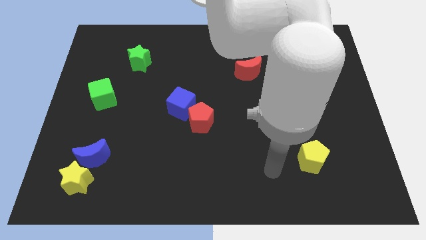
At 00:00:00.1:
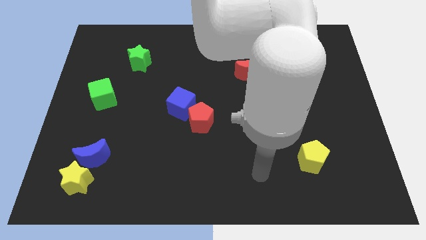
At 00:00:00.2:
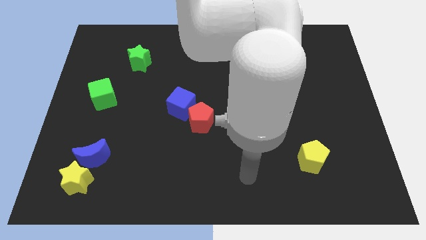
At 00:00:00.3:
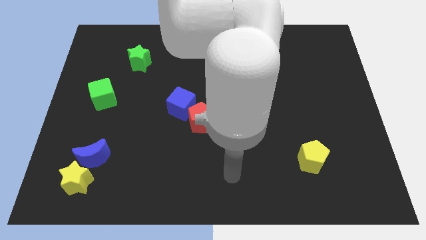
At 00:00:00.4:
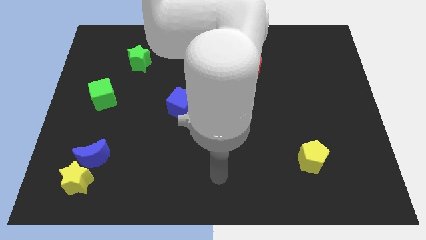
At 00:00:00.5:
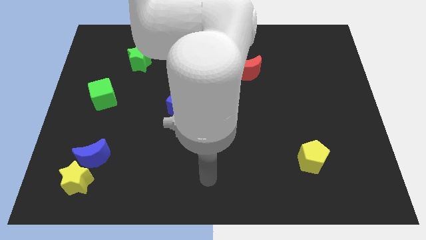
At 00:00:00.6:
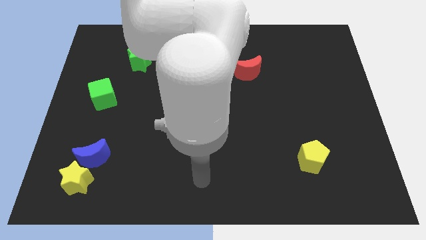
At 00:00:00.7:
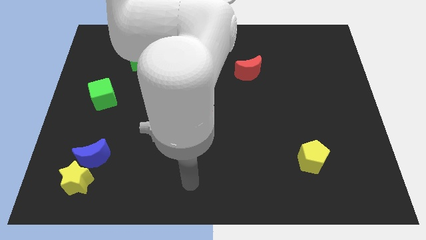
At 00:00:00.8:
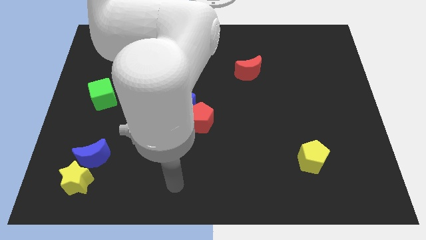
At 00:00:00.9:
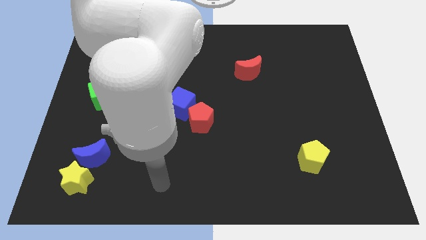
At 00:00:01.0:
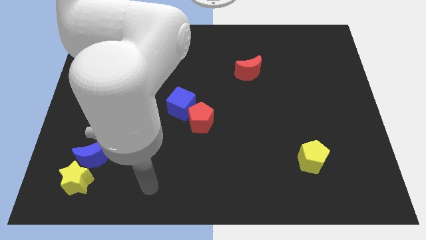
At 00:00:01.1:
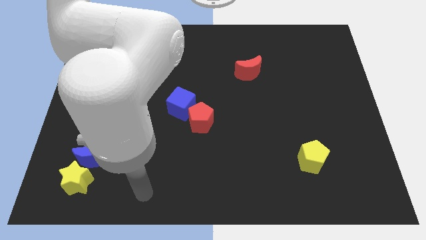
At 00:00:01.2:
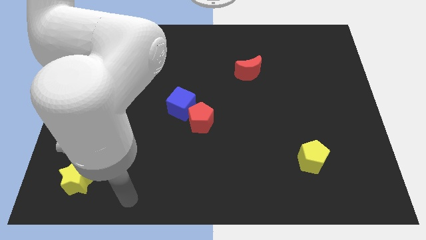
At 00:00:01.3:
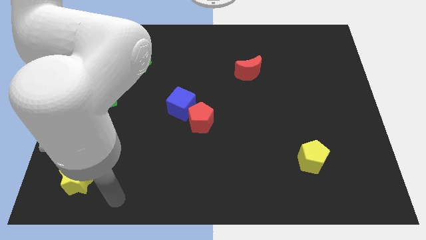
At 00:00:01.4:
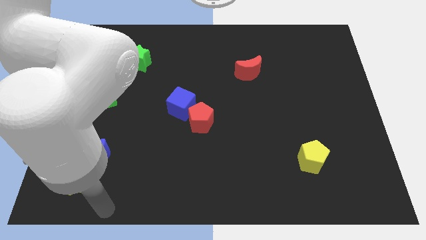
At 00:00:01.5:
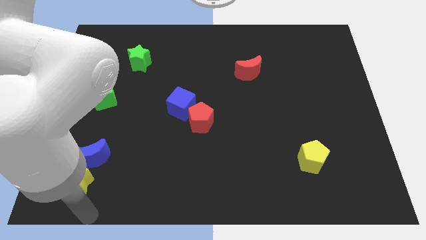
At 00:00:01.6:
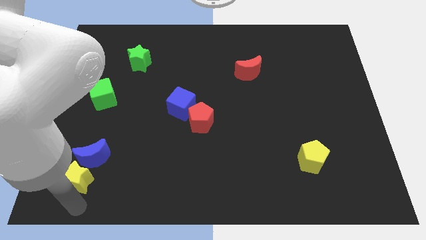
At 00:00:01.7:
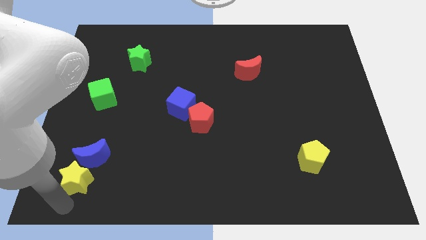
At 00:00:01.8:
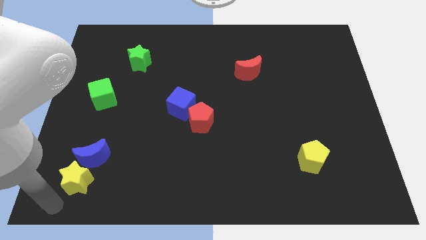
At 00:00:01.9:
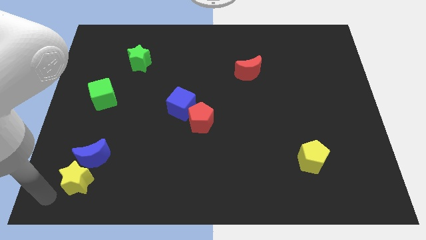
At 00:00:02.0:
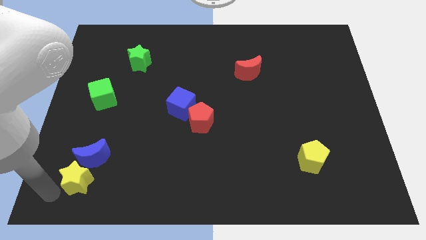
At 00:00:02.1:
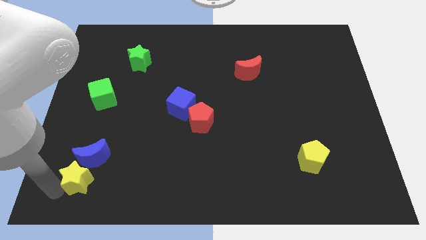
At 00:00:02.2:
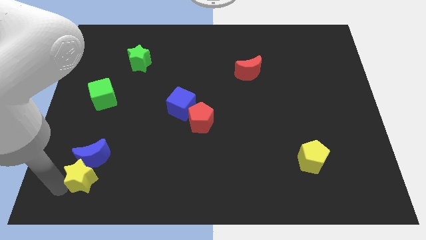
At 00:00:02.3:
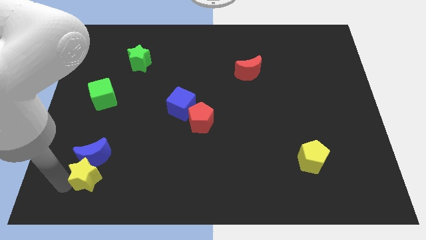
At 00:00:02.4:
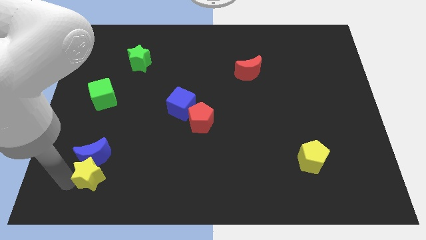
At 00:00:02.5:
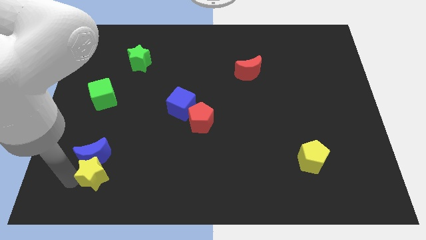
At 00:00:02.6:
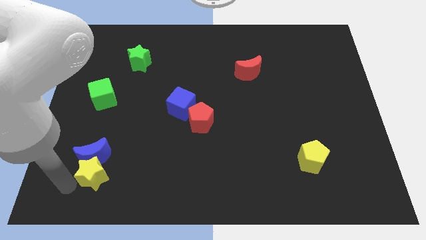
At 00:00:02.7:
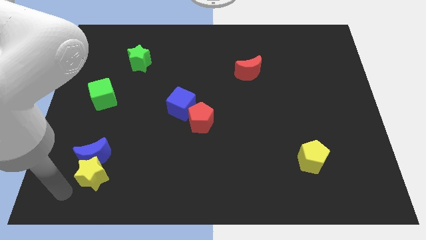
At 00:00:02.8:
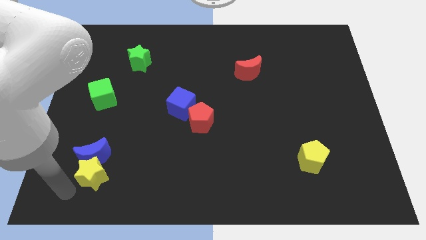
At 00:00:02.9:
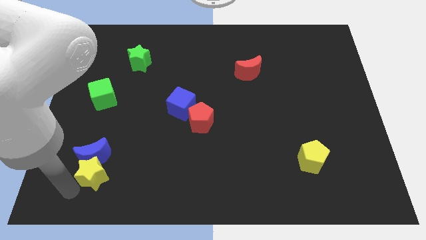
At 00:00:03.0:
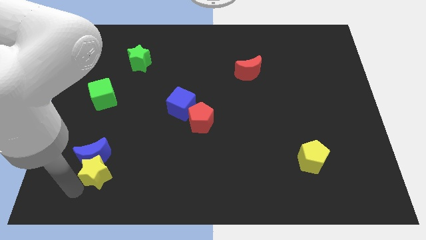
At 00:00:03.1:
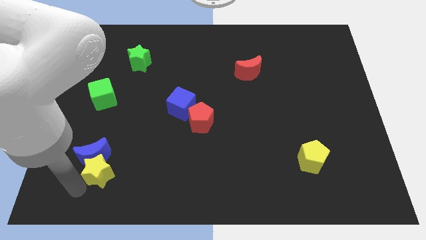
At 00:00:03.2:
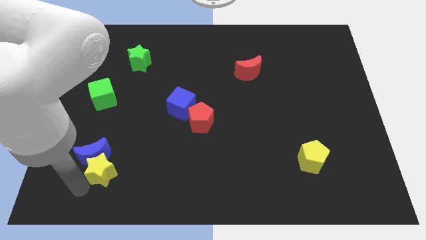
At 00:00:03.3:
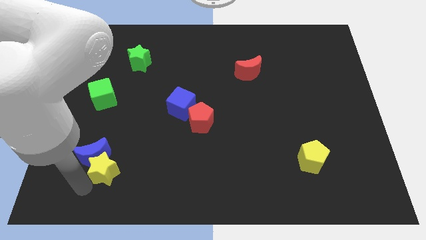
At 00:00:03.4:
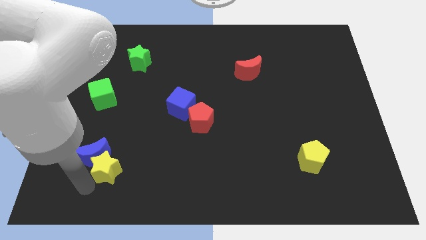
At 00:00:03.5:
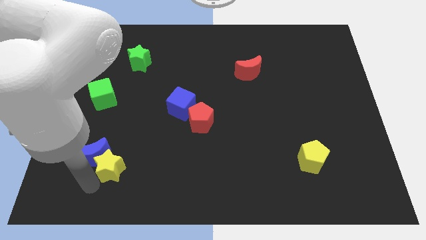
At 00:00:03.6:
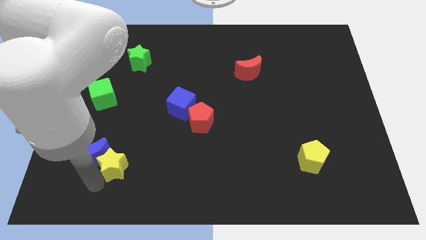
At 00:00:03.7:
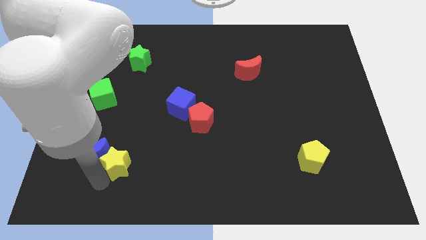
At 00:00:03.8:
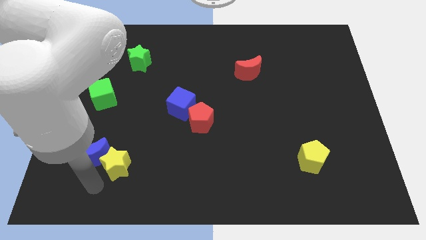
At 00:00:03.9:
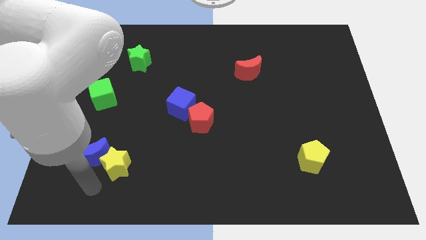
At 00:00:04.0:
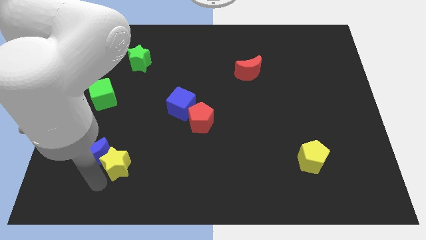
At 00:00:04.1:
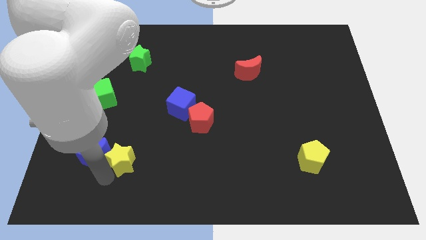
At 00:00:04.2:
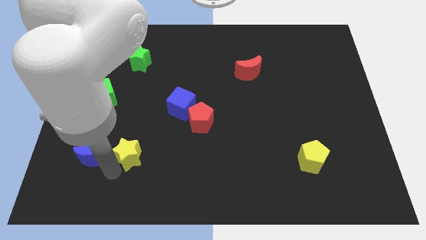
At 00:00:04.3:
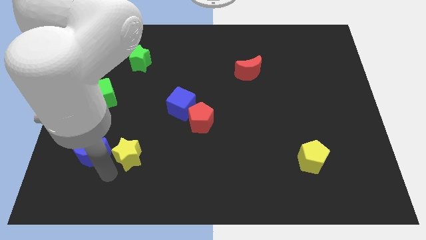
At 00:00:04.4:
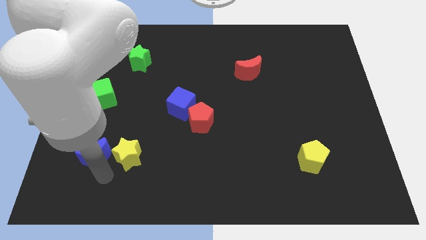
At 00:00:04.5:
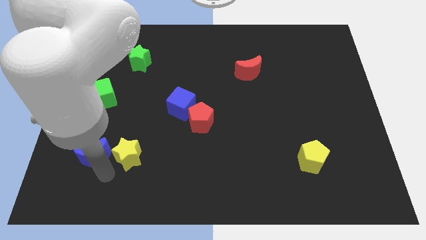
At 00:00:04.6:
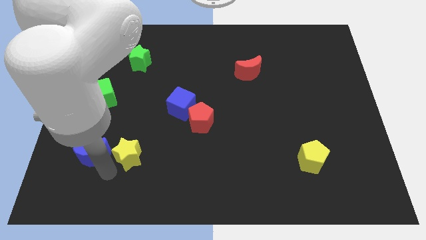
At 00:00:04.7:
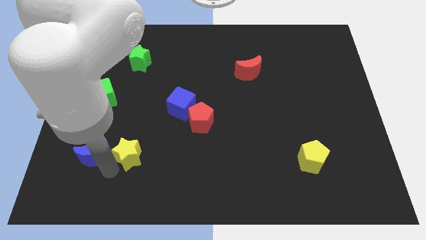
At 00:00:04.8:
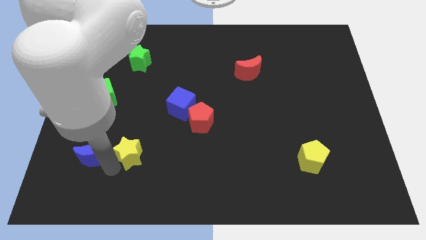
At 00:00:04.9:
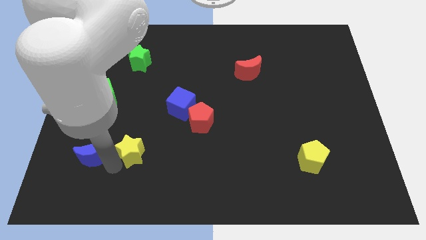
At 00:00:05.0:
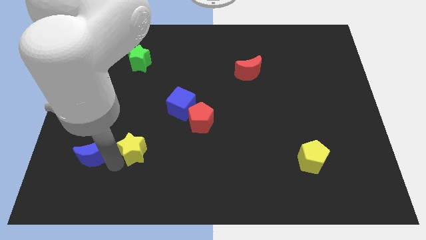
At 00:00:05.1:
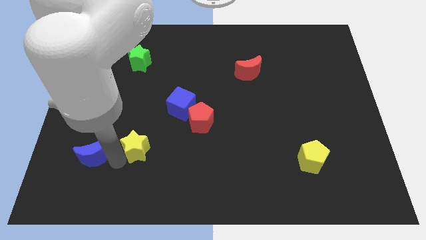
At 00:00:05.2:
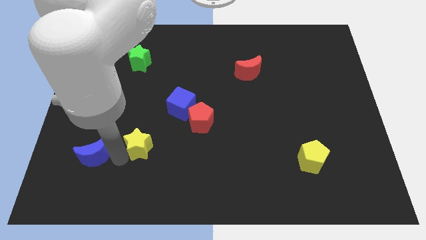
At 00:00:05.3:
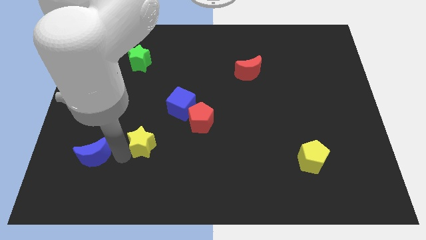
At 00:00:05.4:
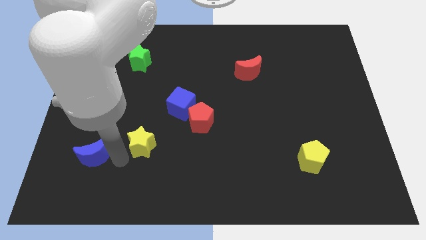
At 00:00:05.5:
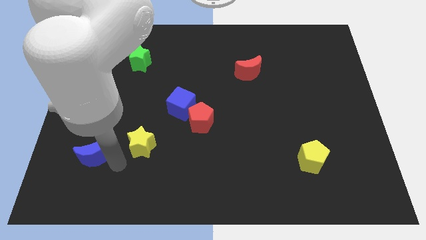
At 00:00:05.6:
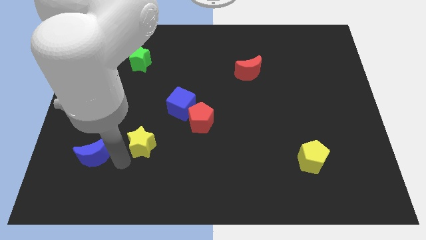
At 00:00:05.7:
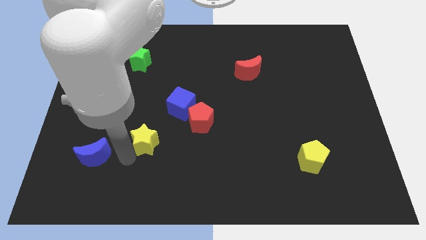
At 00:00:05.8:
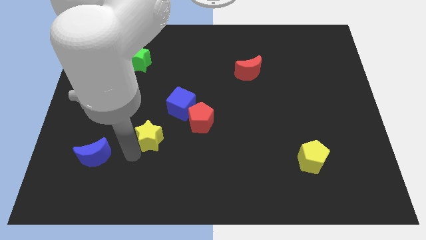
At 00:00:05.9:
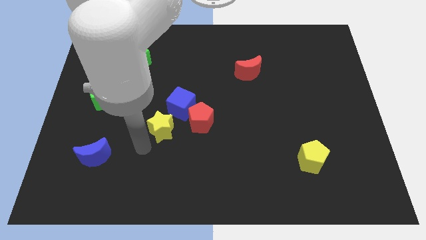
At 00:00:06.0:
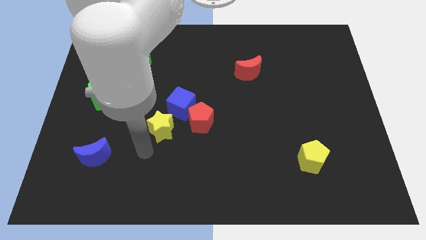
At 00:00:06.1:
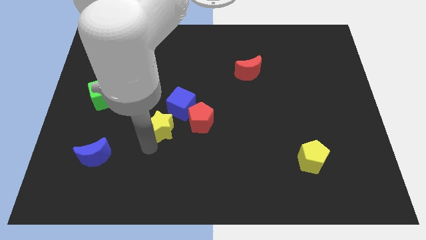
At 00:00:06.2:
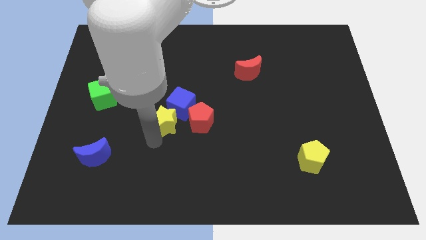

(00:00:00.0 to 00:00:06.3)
push the yellow star towards the blue cube
